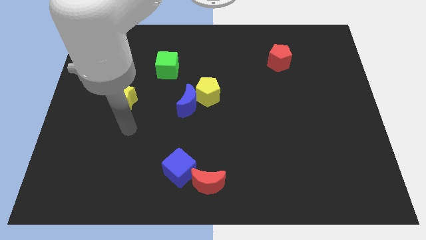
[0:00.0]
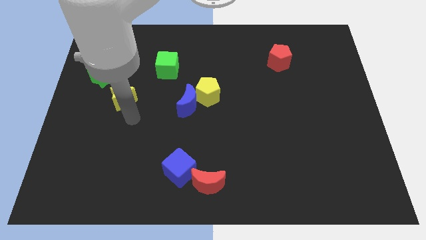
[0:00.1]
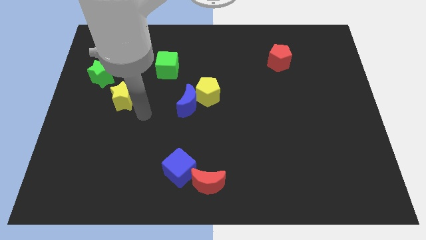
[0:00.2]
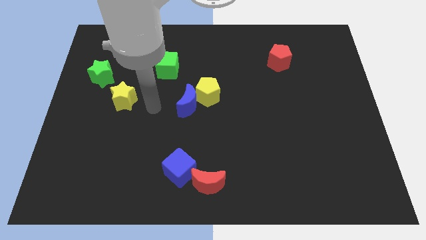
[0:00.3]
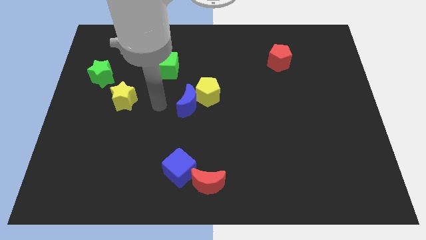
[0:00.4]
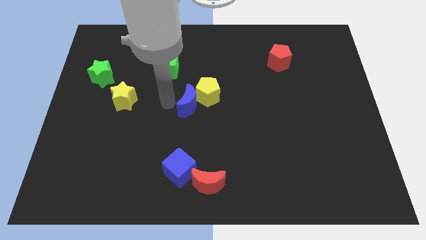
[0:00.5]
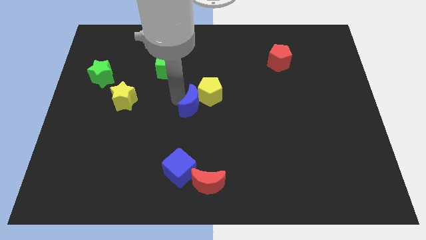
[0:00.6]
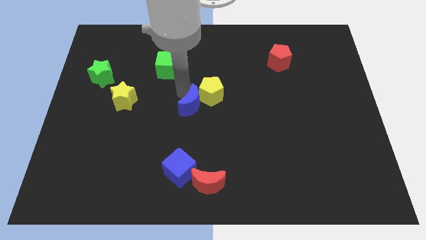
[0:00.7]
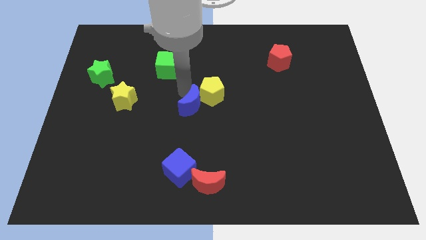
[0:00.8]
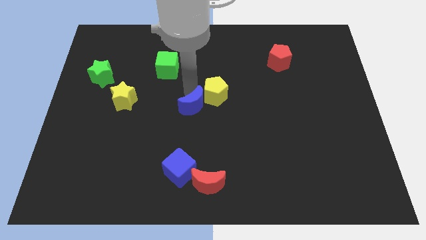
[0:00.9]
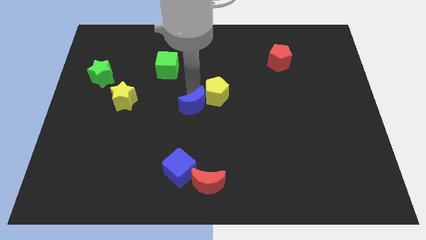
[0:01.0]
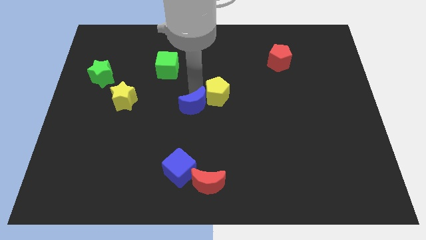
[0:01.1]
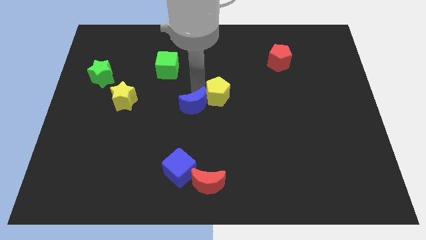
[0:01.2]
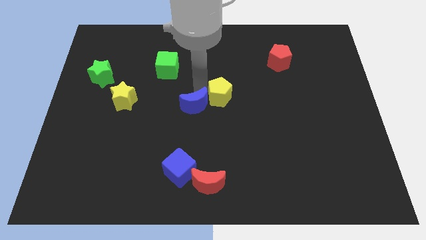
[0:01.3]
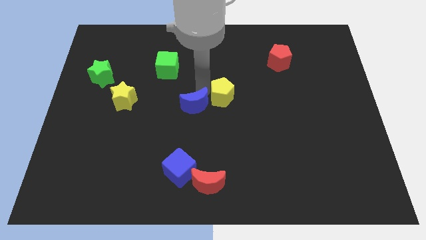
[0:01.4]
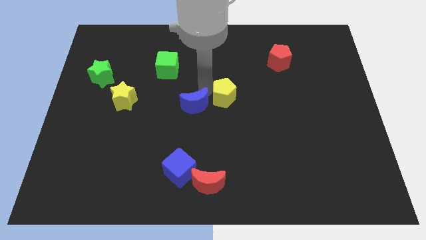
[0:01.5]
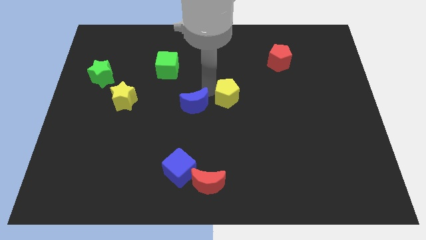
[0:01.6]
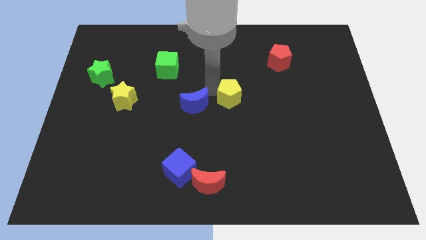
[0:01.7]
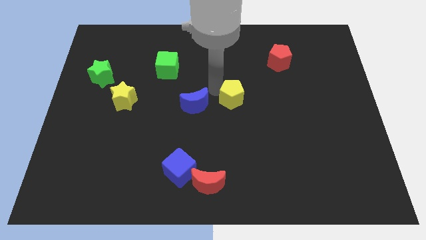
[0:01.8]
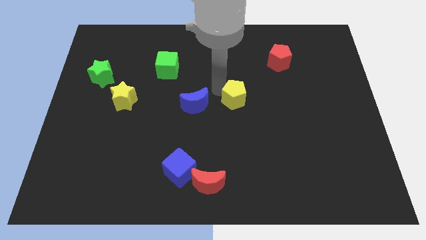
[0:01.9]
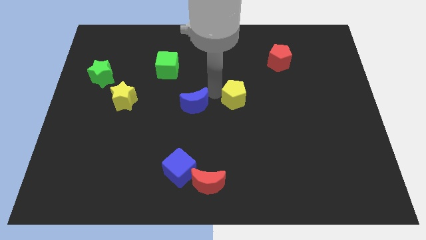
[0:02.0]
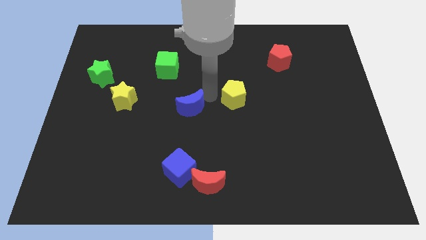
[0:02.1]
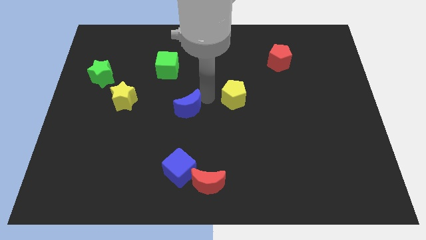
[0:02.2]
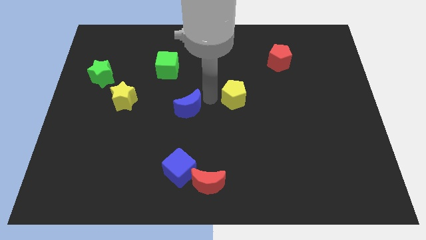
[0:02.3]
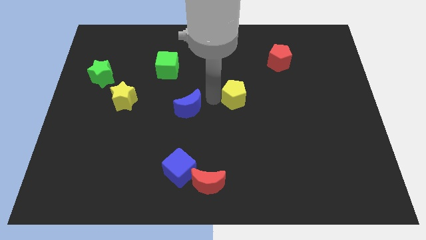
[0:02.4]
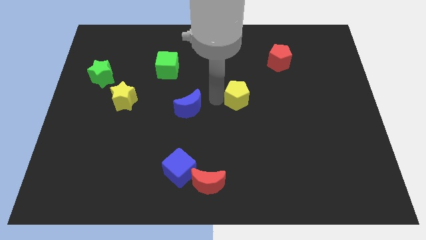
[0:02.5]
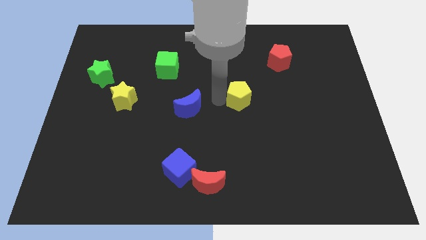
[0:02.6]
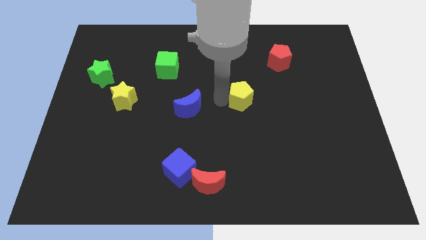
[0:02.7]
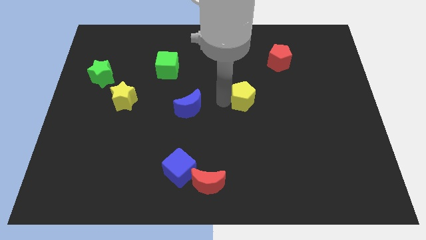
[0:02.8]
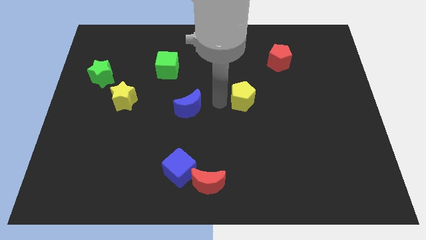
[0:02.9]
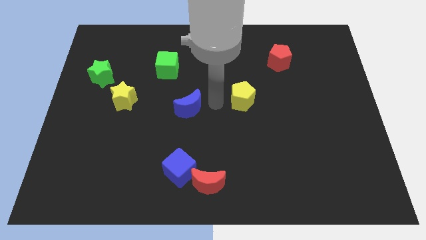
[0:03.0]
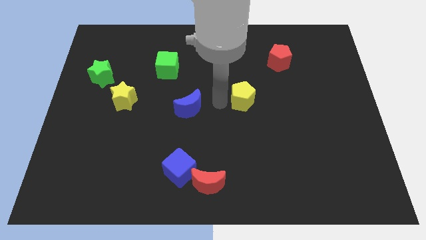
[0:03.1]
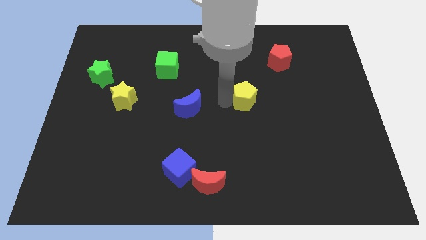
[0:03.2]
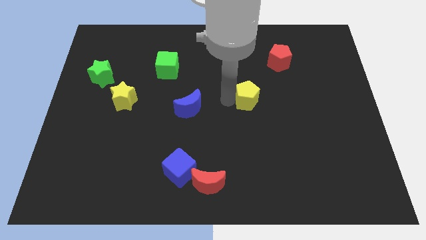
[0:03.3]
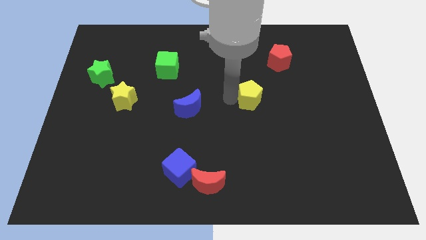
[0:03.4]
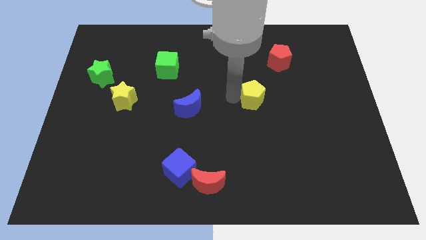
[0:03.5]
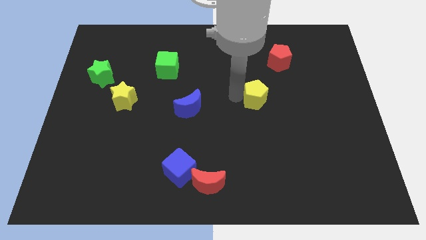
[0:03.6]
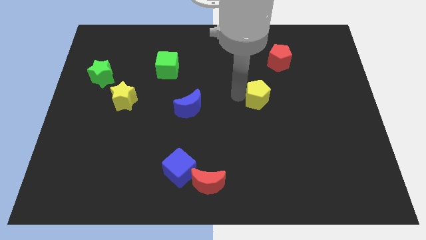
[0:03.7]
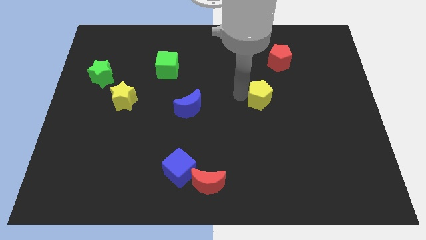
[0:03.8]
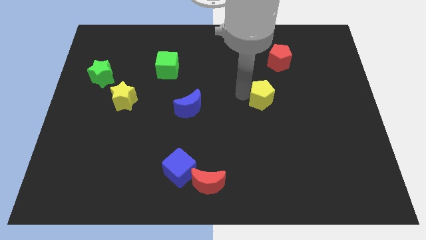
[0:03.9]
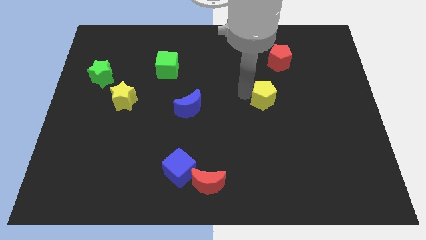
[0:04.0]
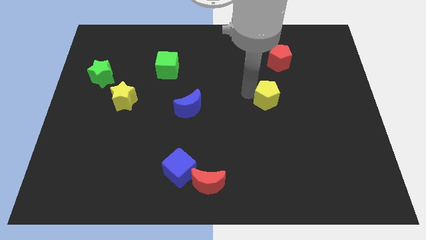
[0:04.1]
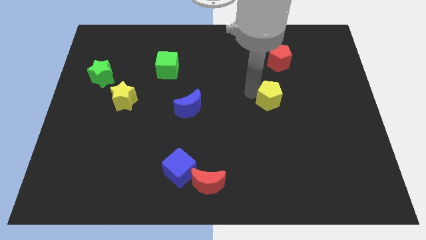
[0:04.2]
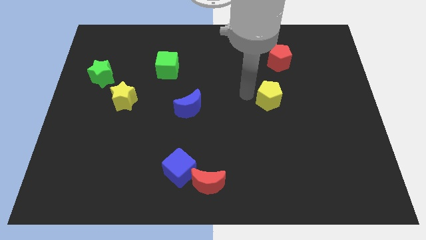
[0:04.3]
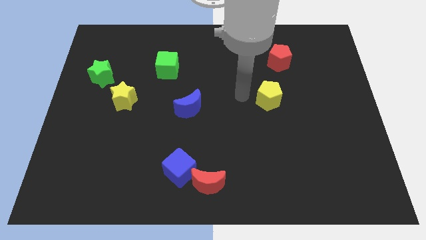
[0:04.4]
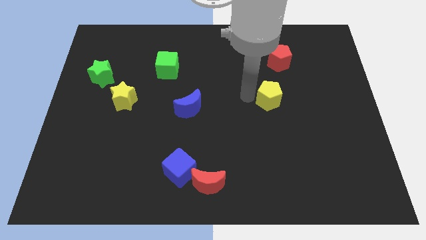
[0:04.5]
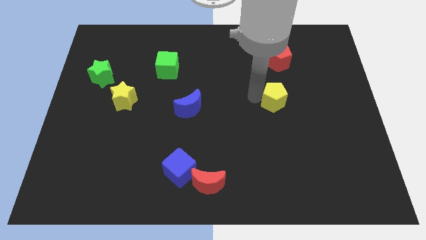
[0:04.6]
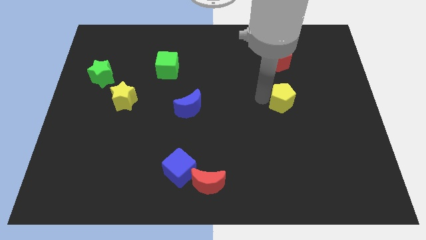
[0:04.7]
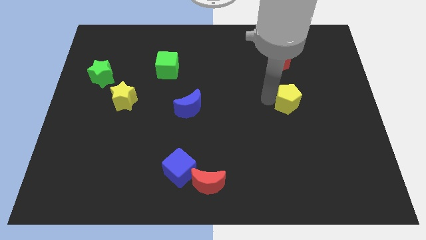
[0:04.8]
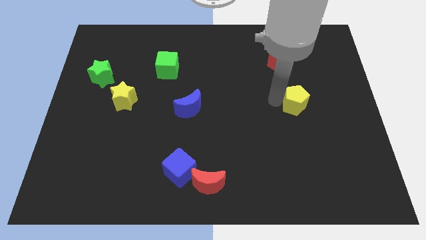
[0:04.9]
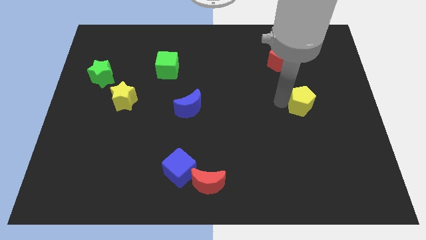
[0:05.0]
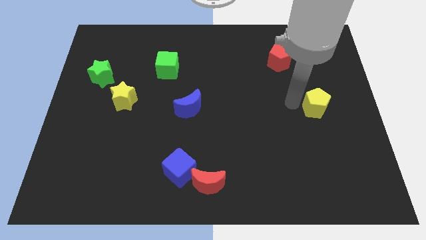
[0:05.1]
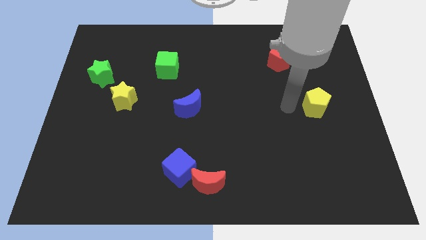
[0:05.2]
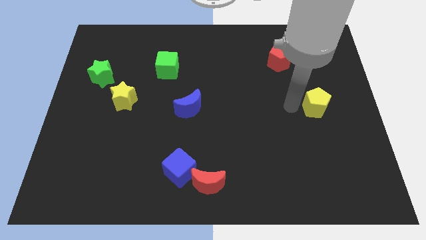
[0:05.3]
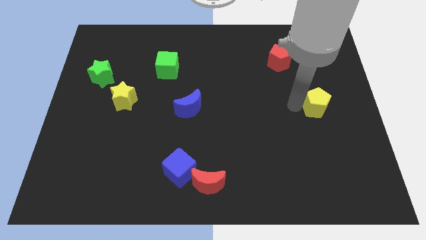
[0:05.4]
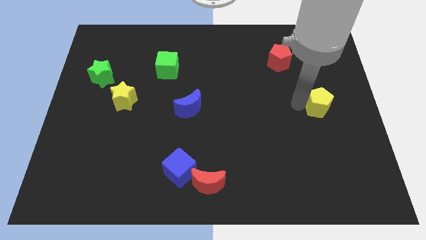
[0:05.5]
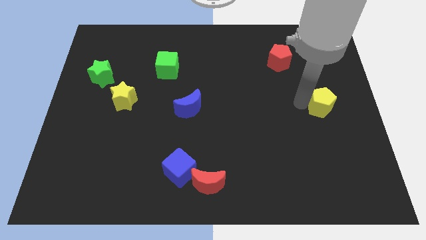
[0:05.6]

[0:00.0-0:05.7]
move the yellow pentagon to the right side of the board

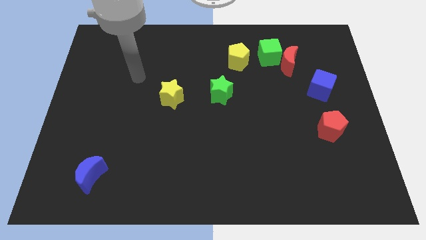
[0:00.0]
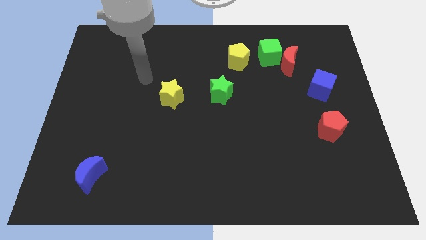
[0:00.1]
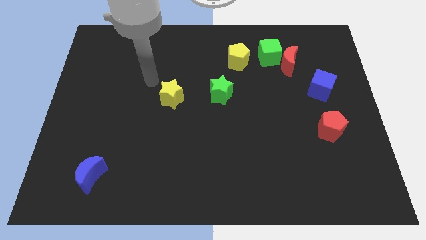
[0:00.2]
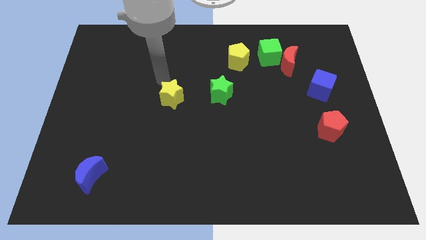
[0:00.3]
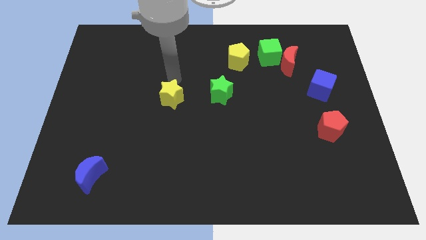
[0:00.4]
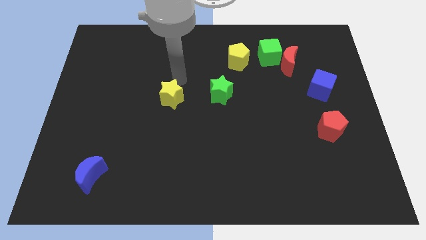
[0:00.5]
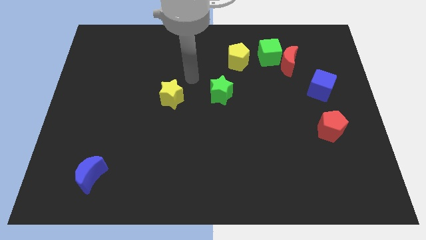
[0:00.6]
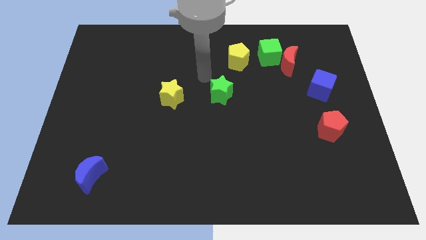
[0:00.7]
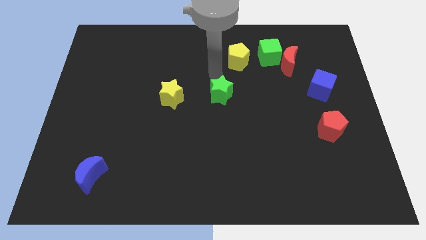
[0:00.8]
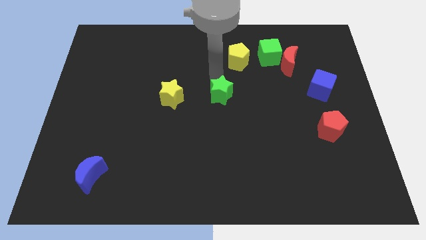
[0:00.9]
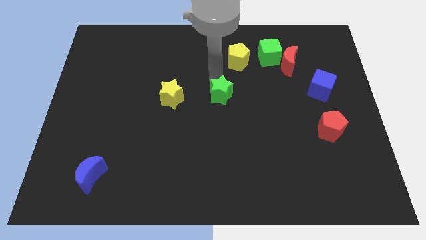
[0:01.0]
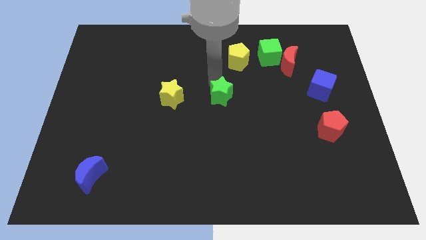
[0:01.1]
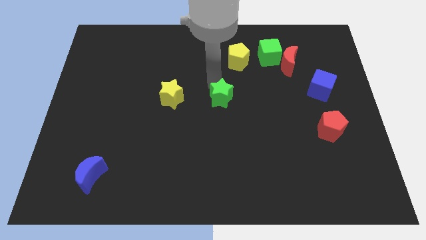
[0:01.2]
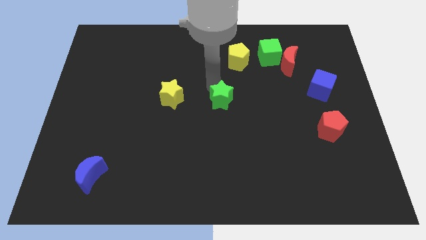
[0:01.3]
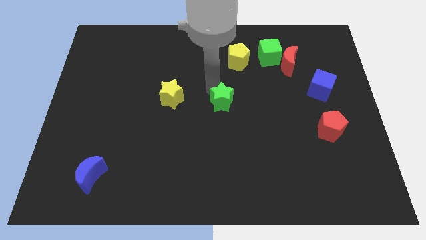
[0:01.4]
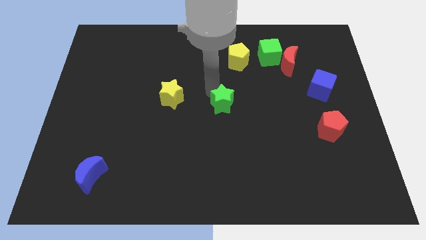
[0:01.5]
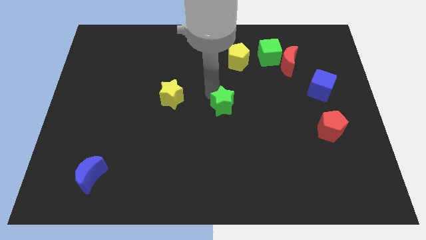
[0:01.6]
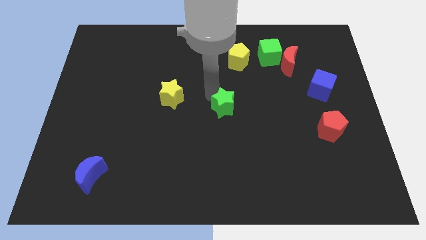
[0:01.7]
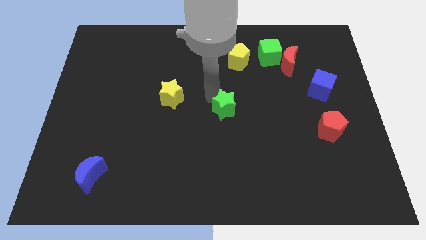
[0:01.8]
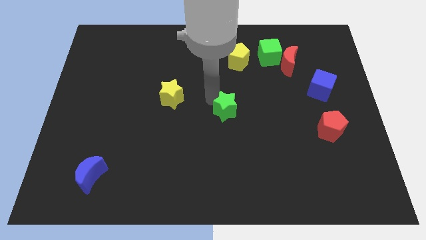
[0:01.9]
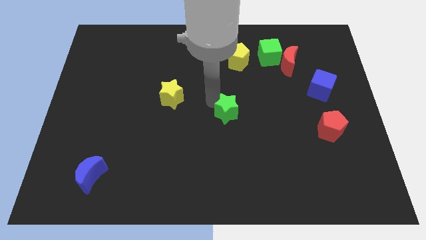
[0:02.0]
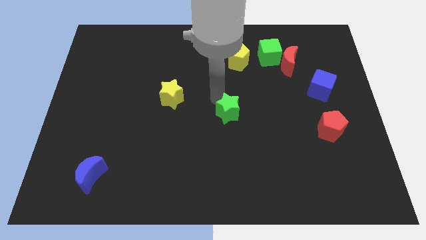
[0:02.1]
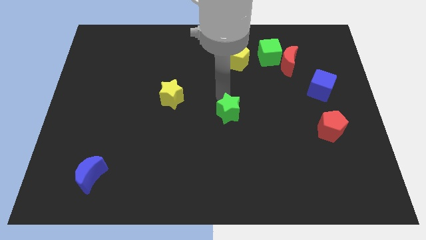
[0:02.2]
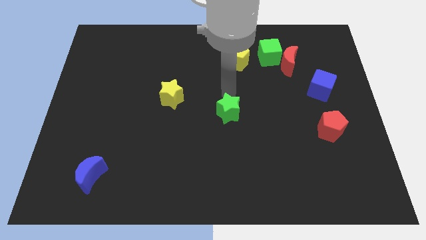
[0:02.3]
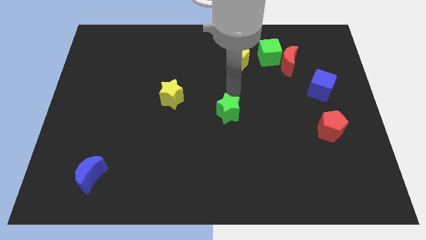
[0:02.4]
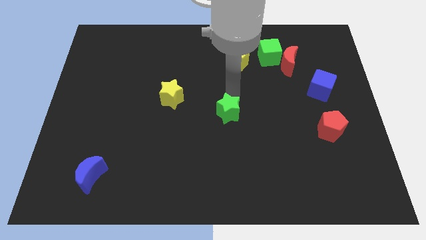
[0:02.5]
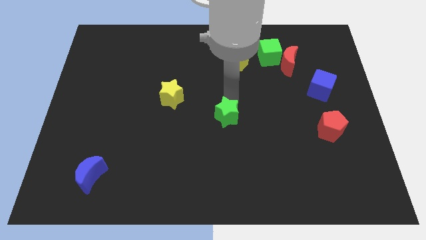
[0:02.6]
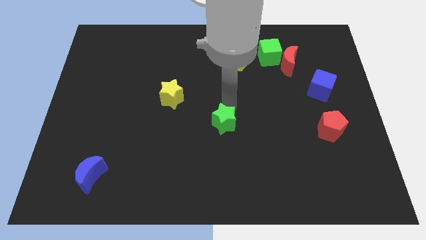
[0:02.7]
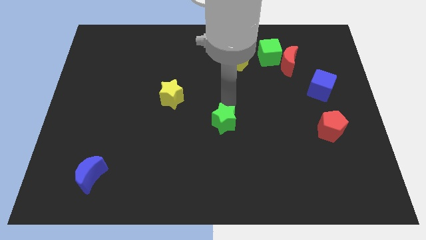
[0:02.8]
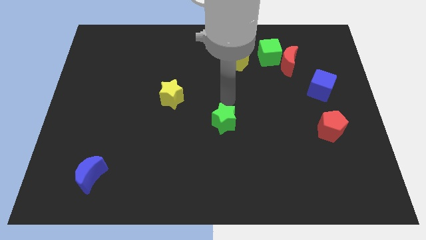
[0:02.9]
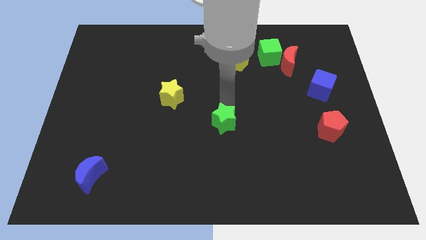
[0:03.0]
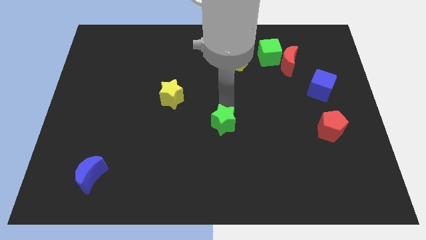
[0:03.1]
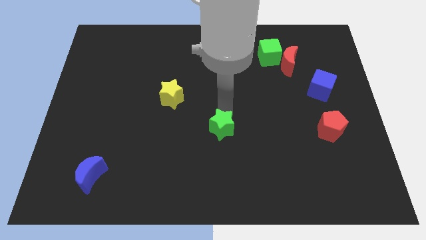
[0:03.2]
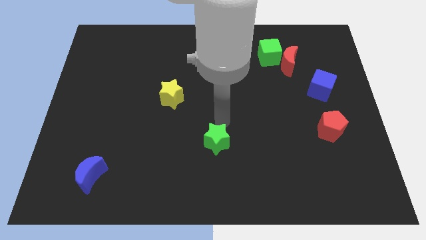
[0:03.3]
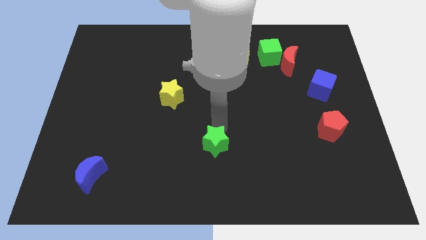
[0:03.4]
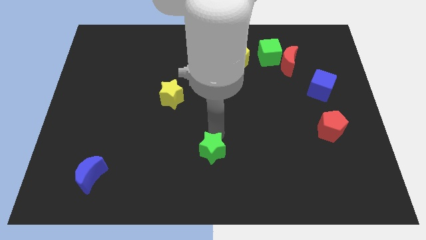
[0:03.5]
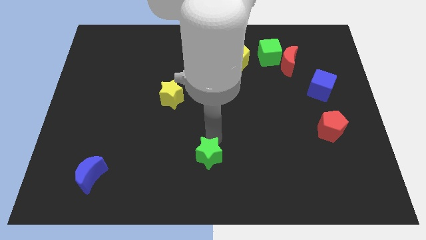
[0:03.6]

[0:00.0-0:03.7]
slide the green star to the bottom
